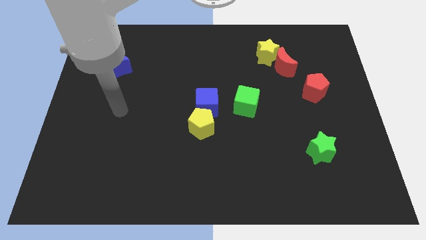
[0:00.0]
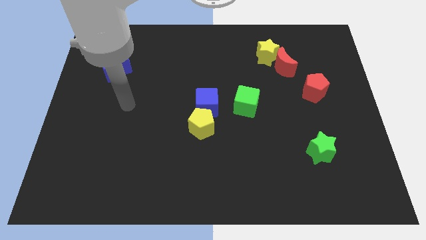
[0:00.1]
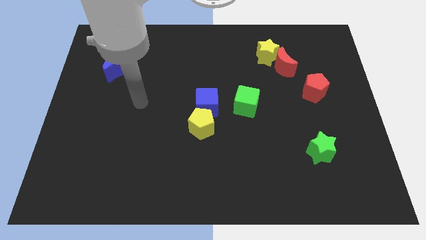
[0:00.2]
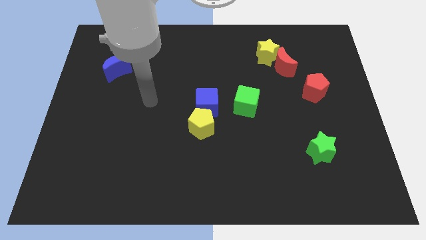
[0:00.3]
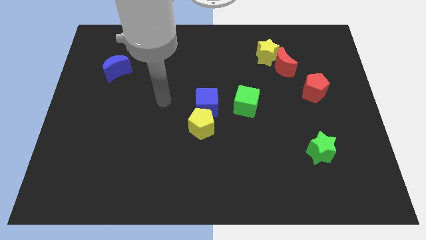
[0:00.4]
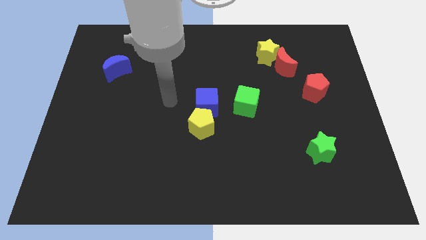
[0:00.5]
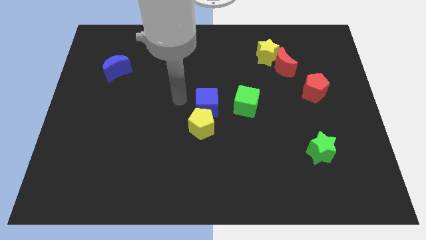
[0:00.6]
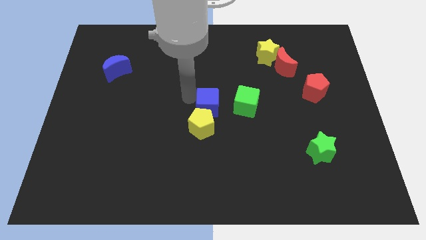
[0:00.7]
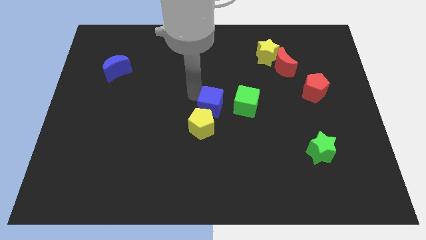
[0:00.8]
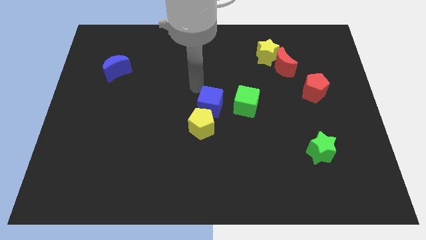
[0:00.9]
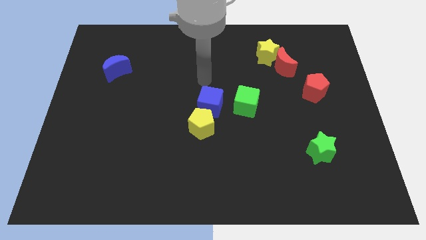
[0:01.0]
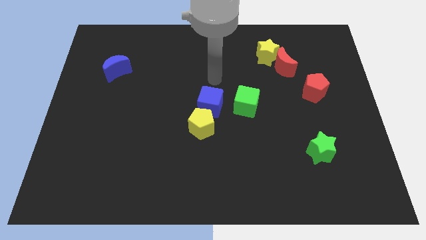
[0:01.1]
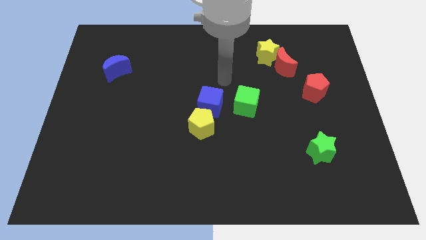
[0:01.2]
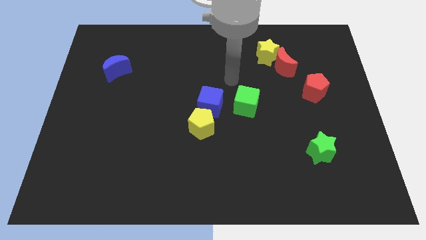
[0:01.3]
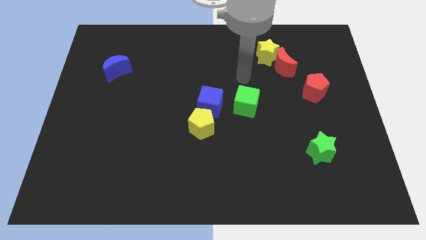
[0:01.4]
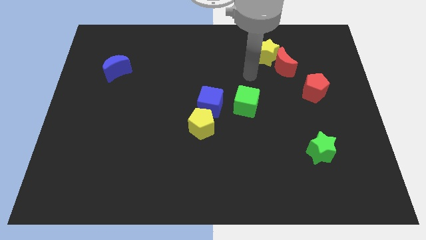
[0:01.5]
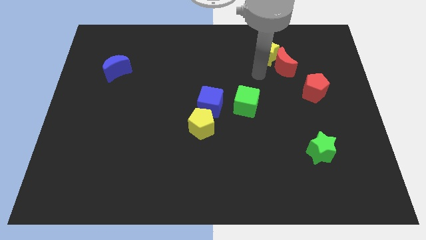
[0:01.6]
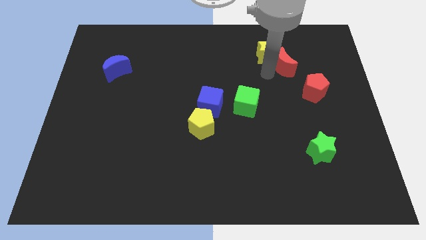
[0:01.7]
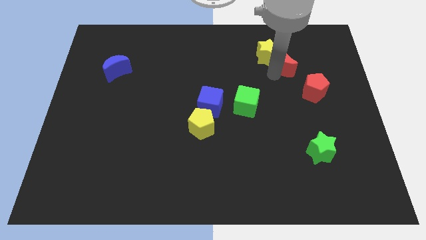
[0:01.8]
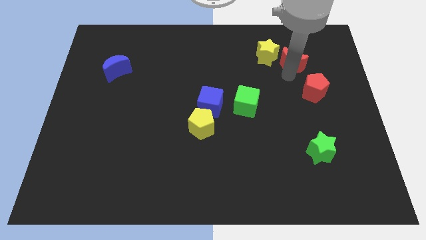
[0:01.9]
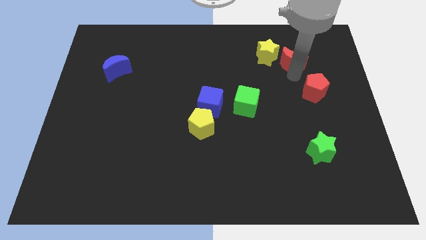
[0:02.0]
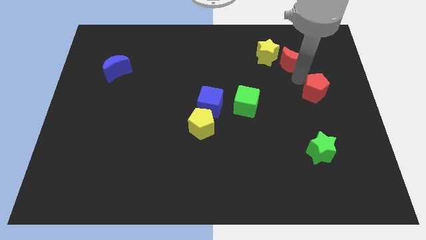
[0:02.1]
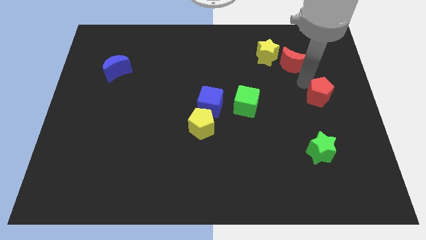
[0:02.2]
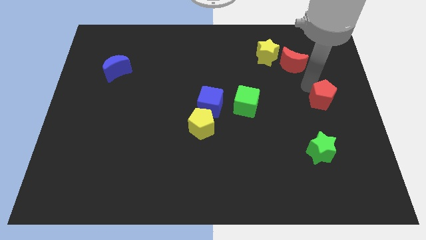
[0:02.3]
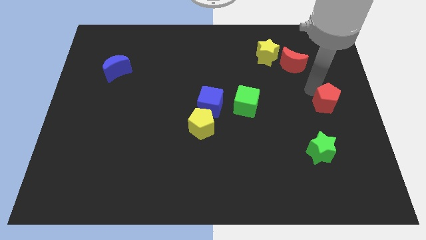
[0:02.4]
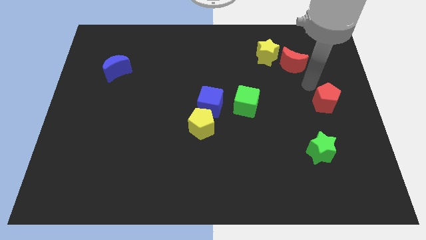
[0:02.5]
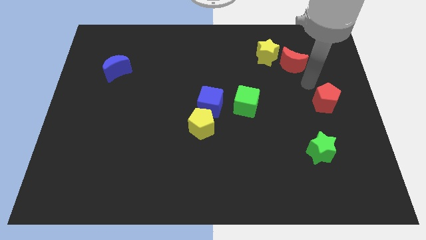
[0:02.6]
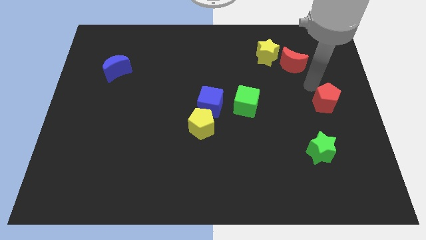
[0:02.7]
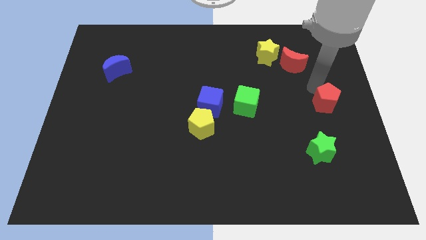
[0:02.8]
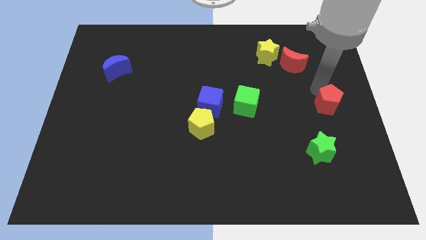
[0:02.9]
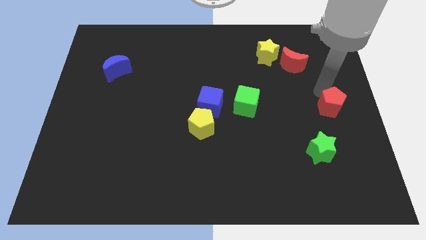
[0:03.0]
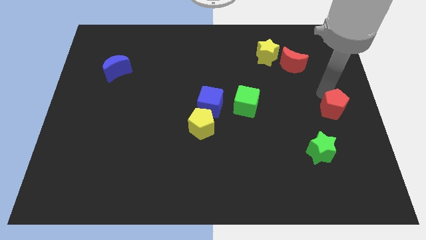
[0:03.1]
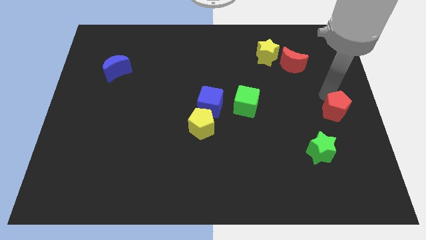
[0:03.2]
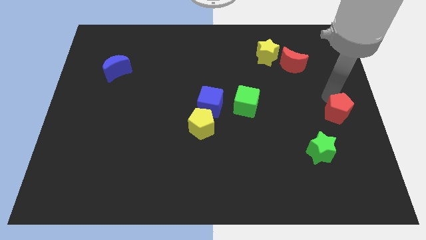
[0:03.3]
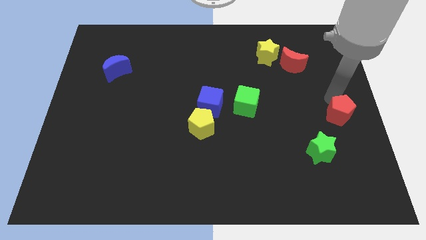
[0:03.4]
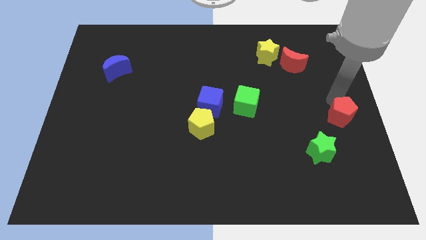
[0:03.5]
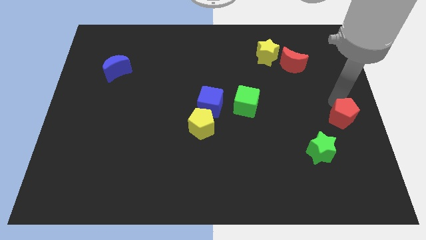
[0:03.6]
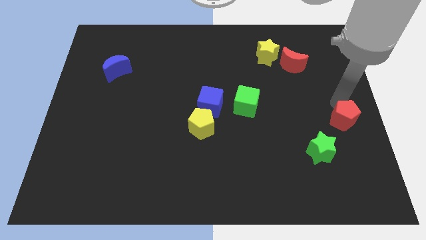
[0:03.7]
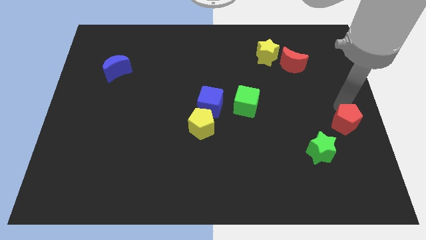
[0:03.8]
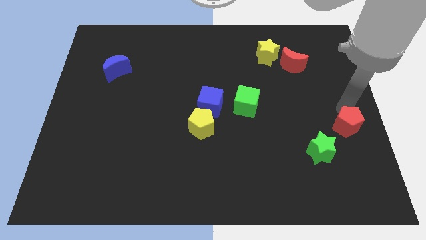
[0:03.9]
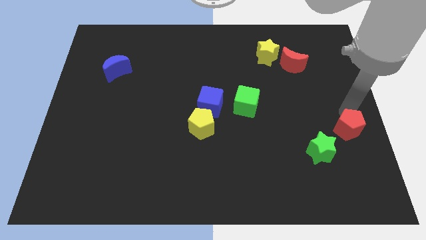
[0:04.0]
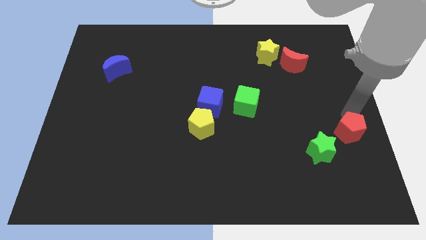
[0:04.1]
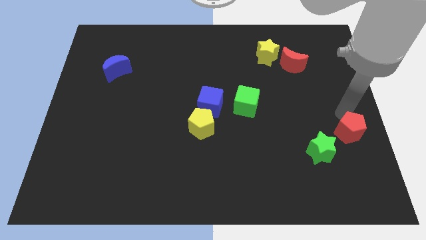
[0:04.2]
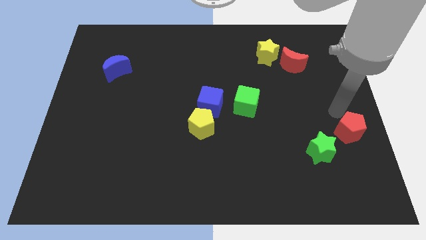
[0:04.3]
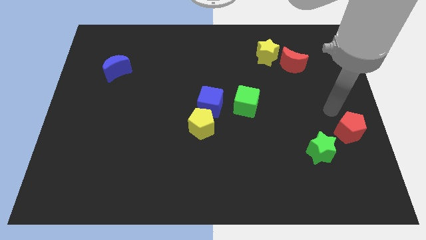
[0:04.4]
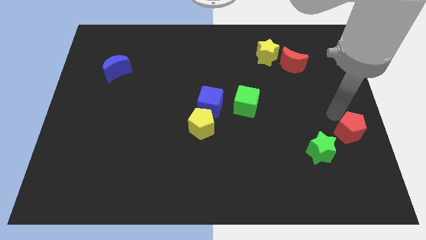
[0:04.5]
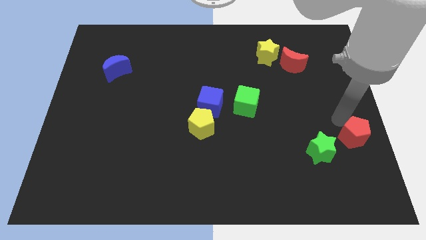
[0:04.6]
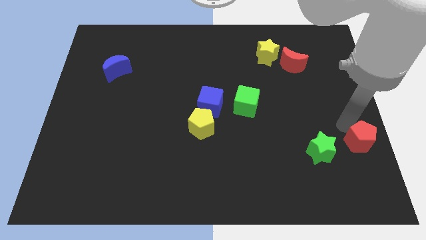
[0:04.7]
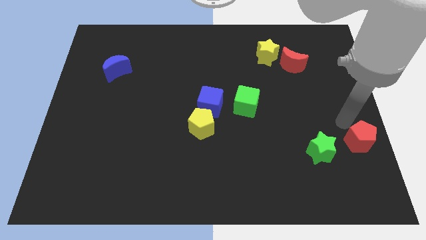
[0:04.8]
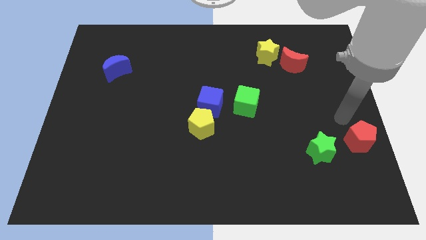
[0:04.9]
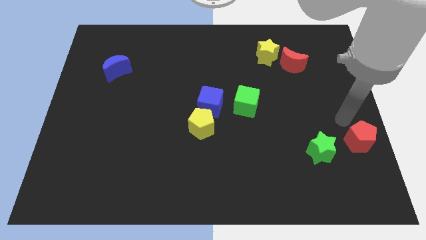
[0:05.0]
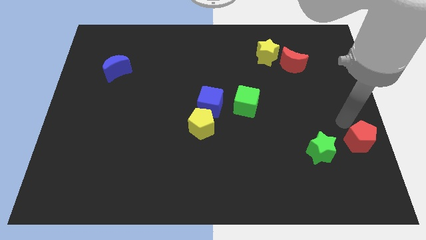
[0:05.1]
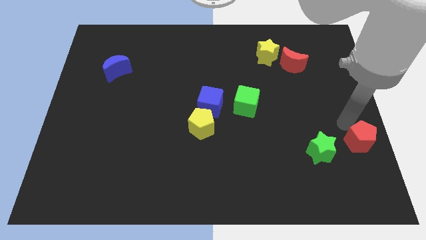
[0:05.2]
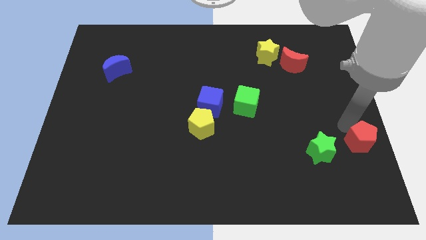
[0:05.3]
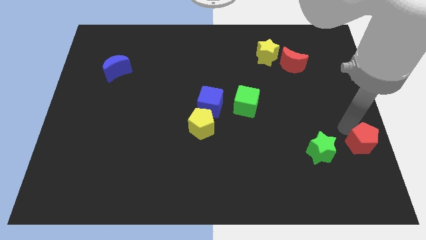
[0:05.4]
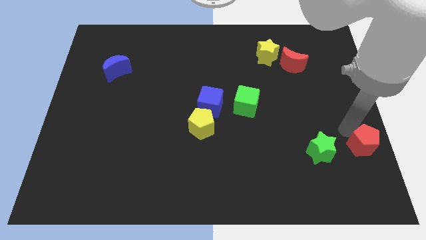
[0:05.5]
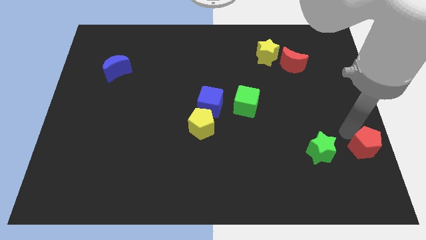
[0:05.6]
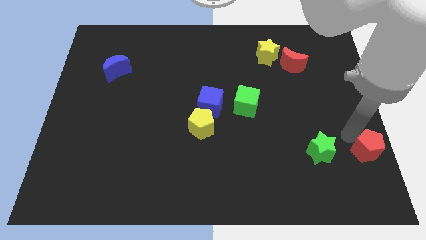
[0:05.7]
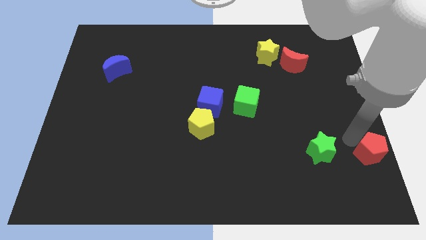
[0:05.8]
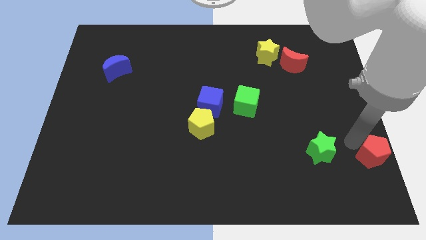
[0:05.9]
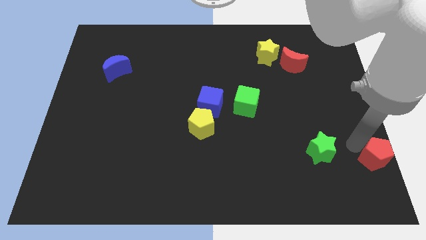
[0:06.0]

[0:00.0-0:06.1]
move the red pentagon to the bottom right corner
